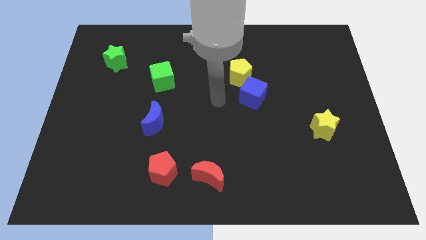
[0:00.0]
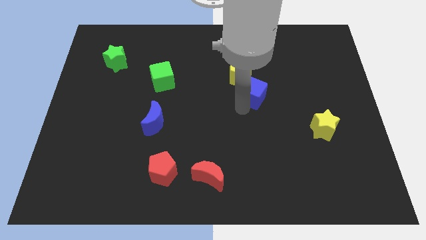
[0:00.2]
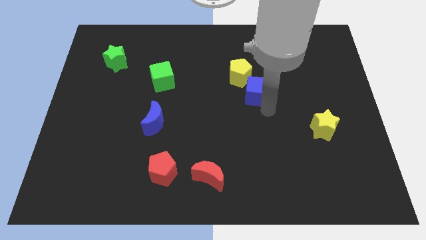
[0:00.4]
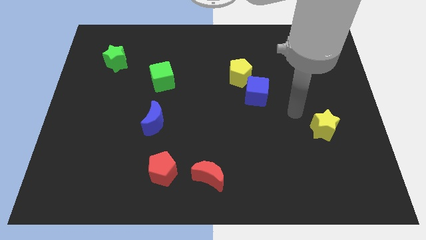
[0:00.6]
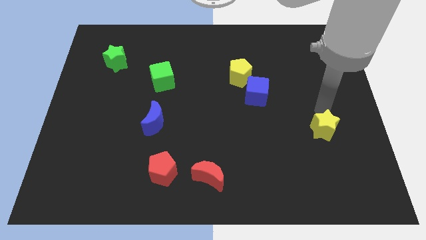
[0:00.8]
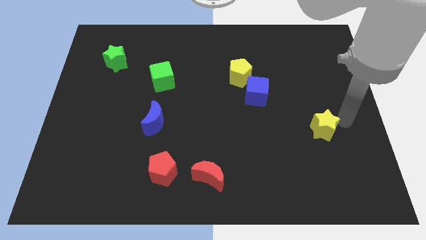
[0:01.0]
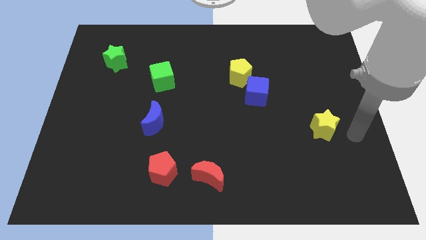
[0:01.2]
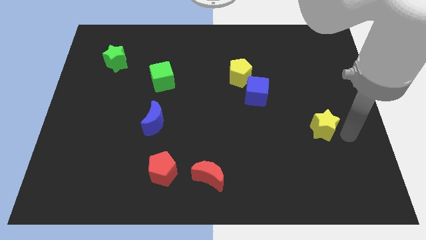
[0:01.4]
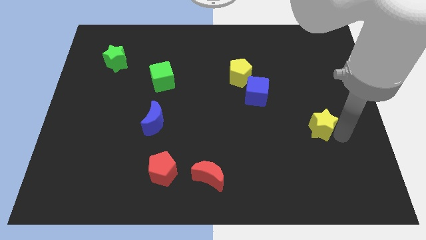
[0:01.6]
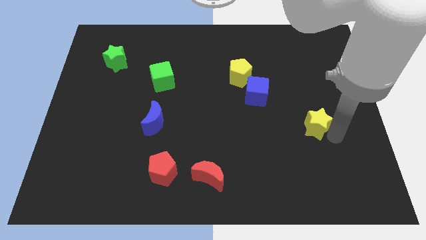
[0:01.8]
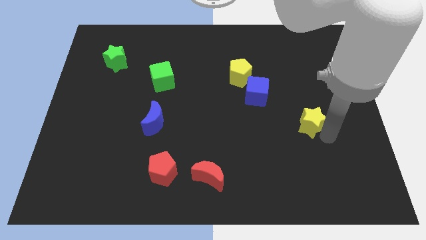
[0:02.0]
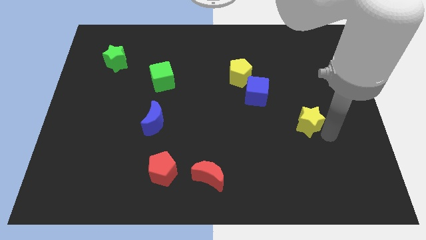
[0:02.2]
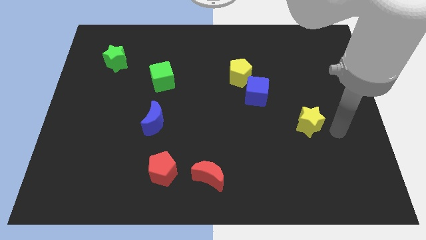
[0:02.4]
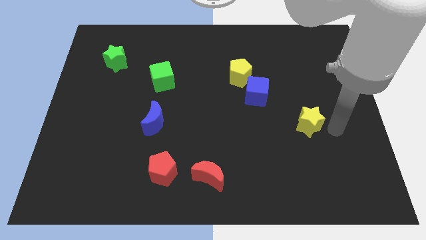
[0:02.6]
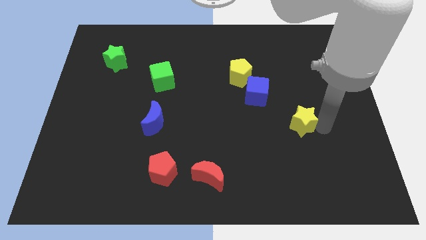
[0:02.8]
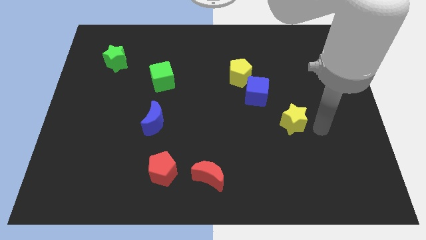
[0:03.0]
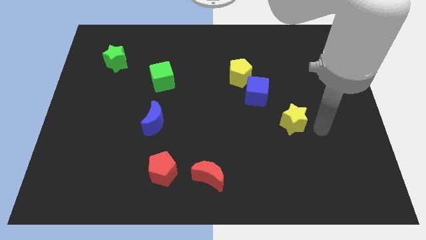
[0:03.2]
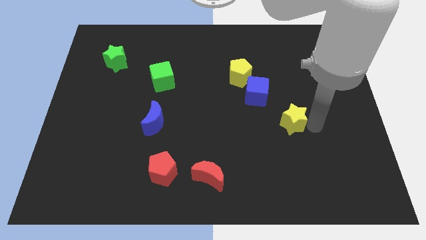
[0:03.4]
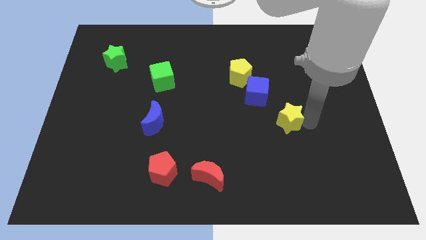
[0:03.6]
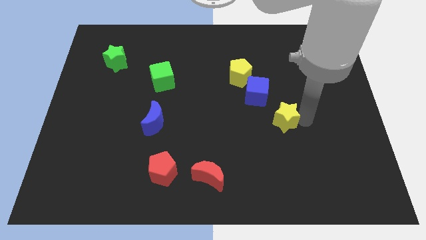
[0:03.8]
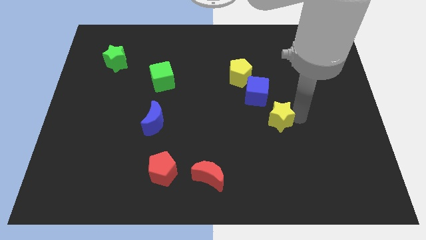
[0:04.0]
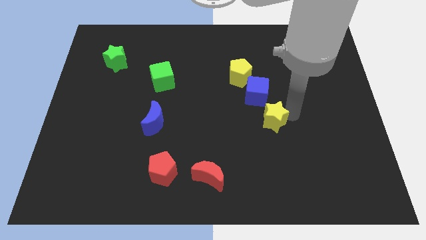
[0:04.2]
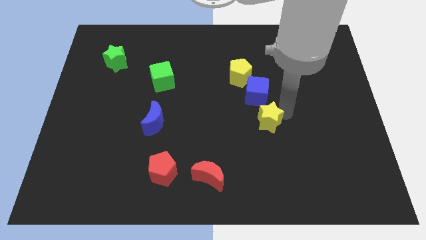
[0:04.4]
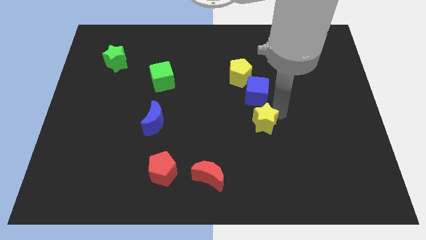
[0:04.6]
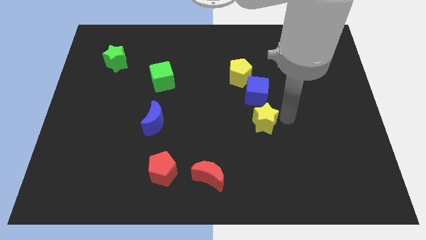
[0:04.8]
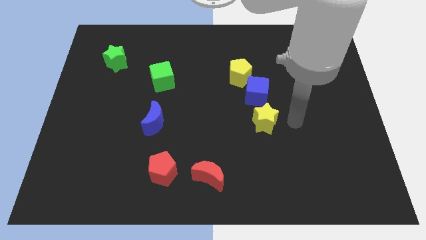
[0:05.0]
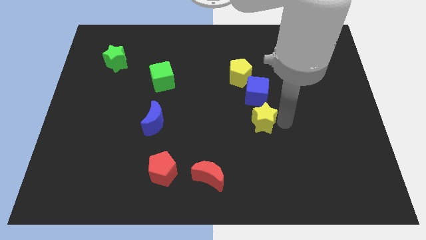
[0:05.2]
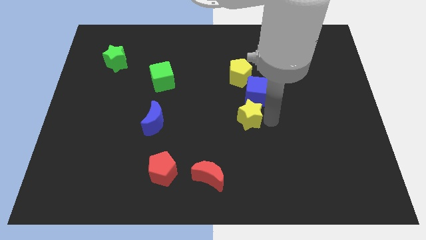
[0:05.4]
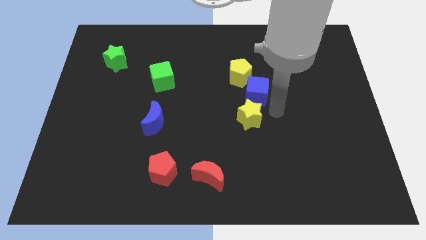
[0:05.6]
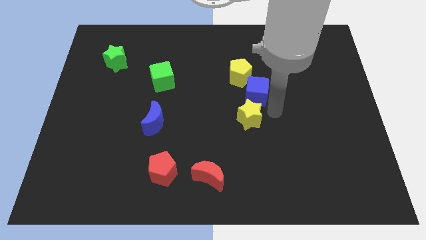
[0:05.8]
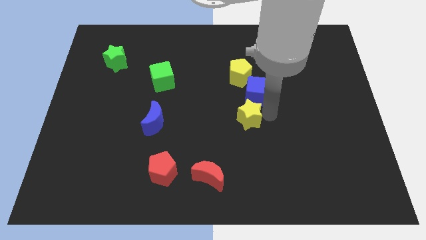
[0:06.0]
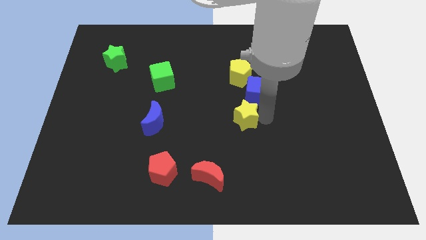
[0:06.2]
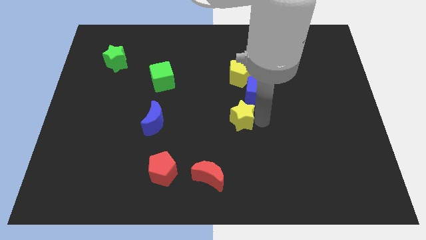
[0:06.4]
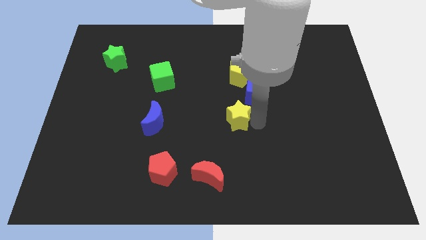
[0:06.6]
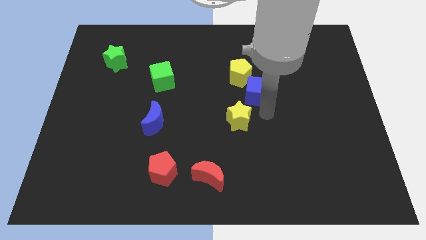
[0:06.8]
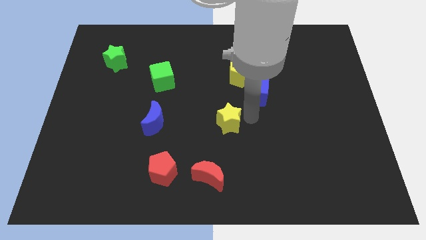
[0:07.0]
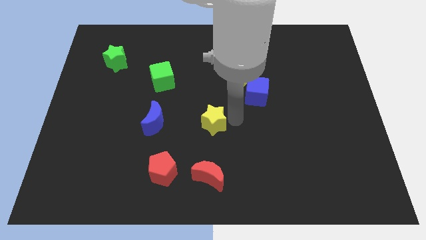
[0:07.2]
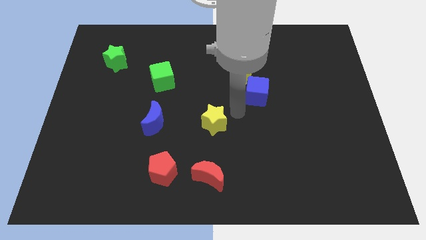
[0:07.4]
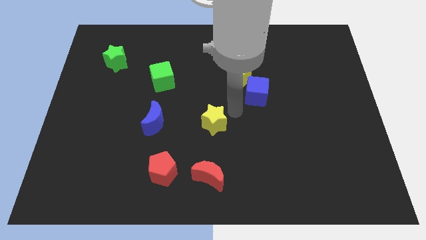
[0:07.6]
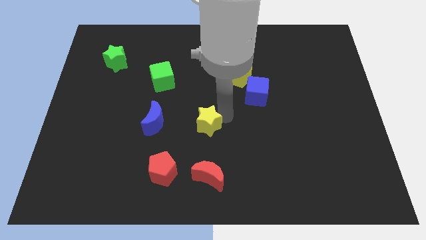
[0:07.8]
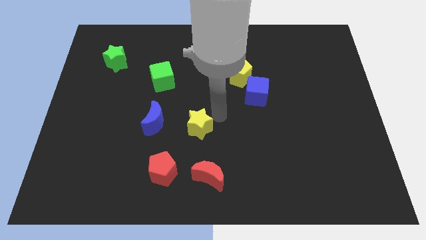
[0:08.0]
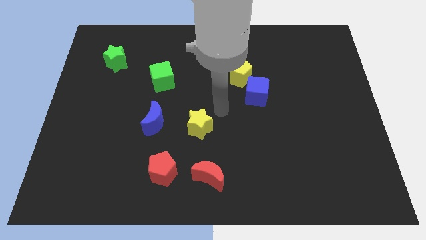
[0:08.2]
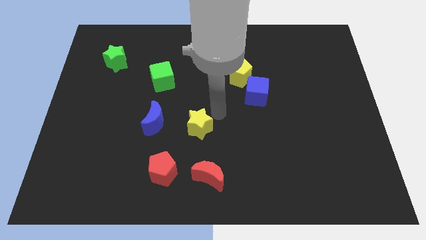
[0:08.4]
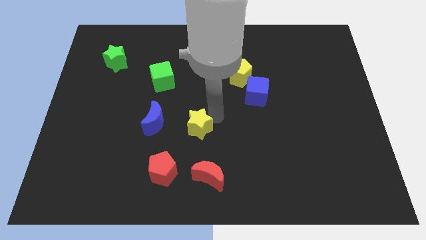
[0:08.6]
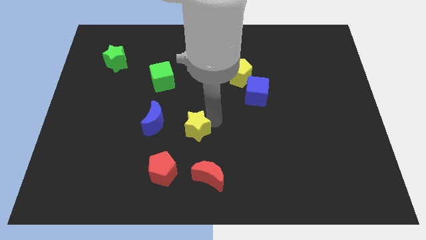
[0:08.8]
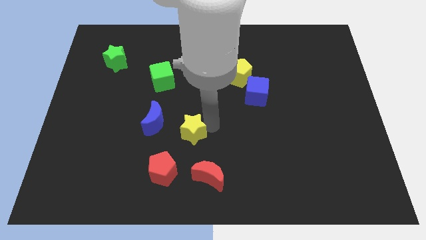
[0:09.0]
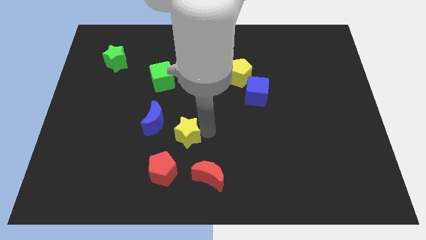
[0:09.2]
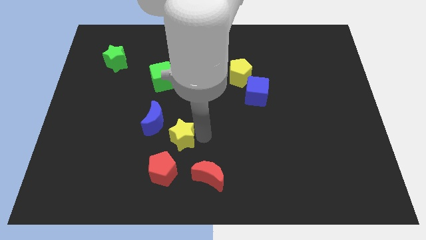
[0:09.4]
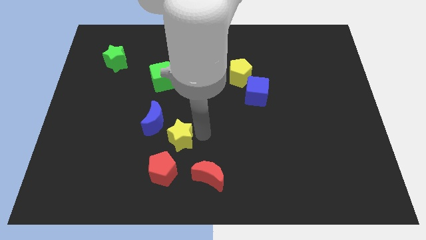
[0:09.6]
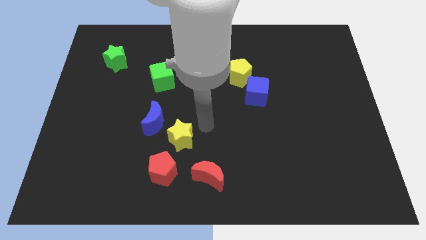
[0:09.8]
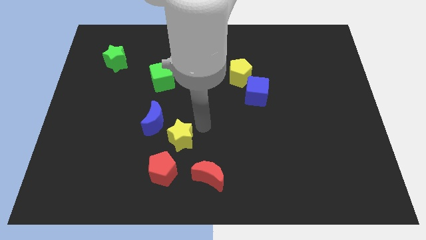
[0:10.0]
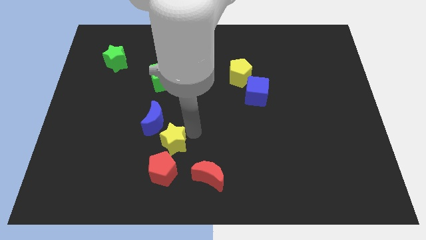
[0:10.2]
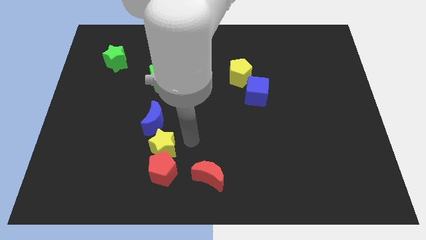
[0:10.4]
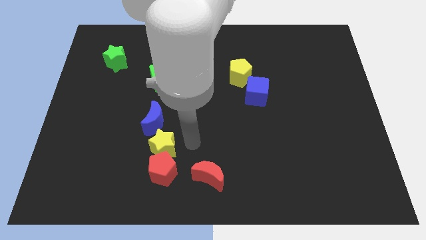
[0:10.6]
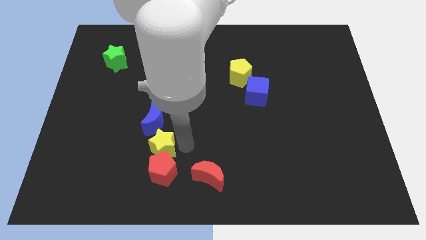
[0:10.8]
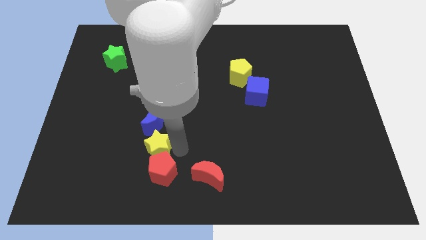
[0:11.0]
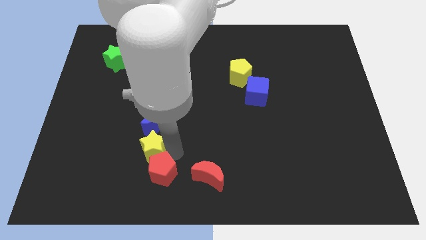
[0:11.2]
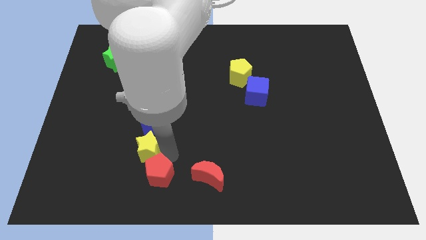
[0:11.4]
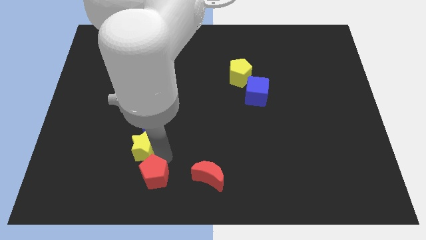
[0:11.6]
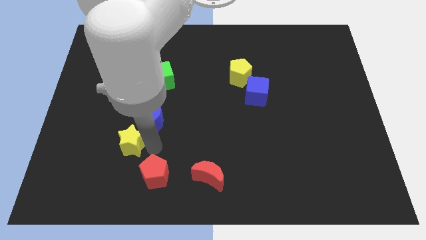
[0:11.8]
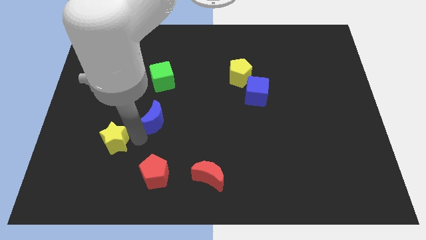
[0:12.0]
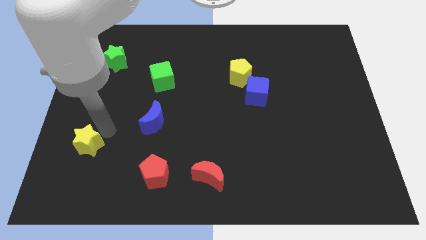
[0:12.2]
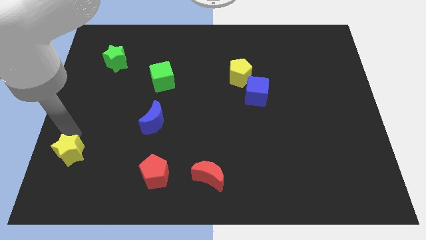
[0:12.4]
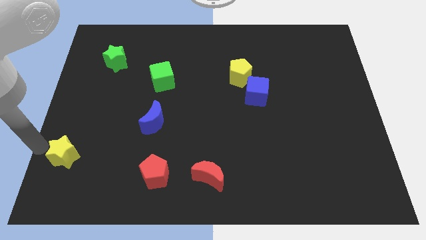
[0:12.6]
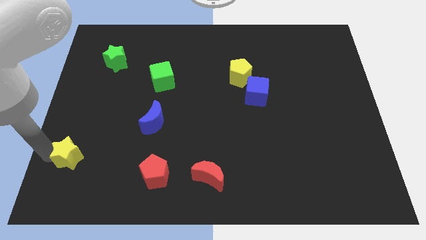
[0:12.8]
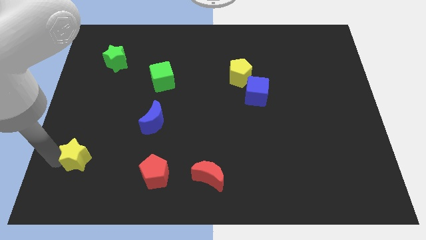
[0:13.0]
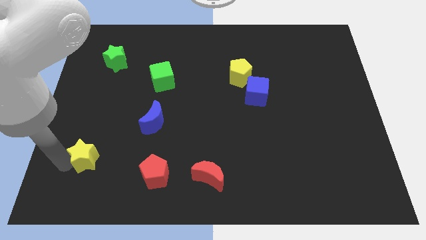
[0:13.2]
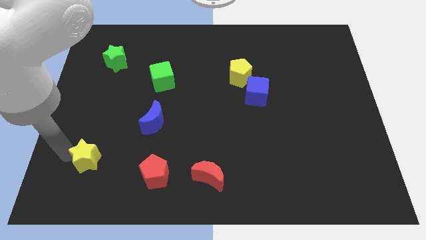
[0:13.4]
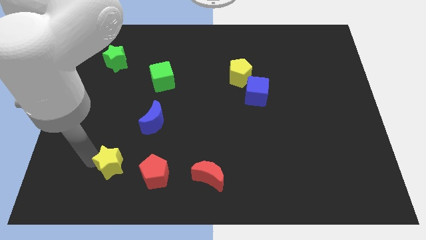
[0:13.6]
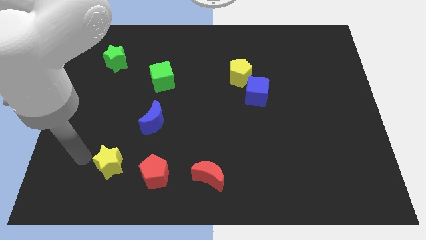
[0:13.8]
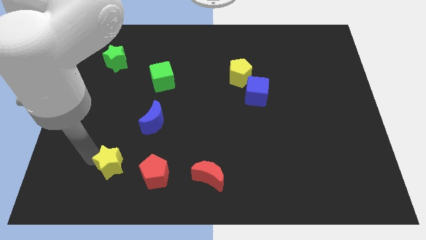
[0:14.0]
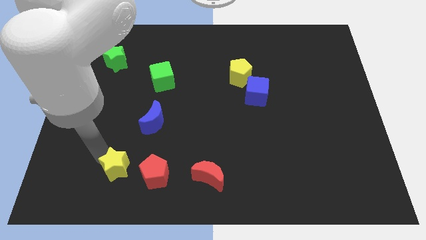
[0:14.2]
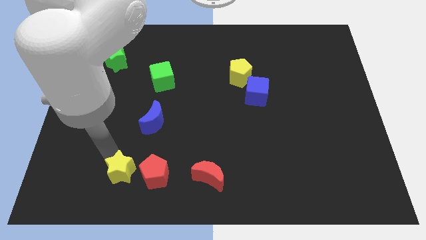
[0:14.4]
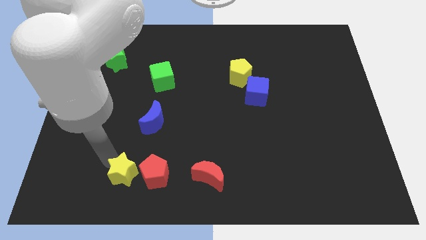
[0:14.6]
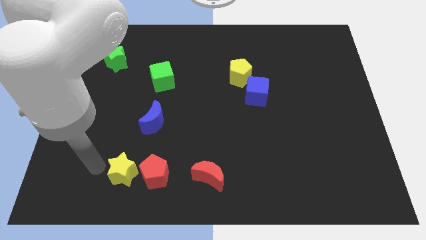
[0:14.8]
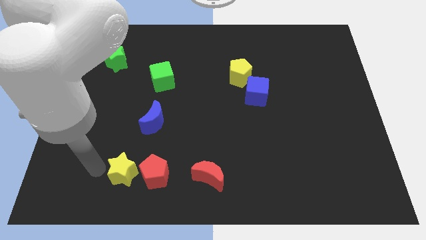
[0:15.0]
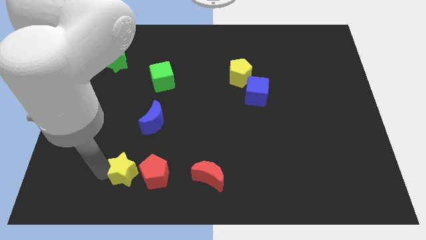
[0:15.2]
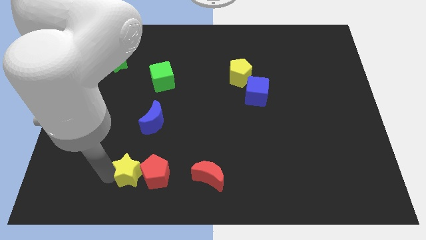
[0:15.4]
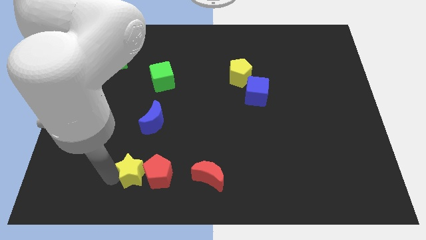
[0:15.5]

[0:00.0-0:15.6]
push the yellow star to the left of the red moon
